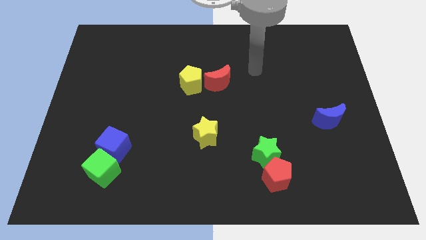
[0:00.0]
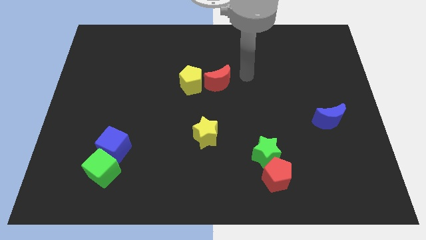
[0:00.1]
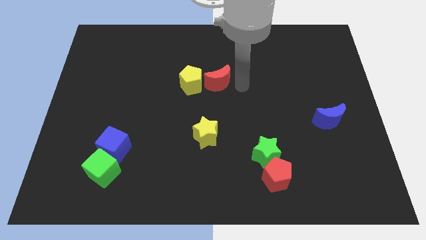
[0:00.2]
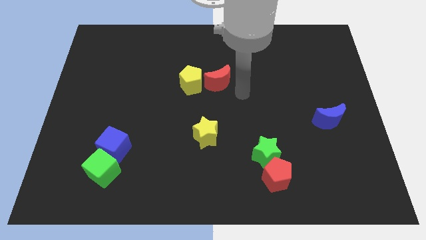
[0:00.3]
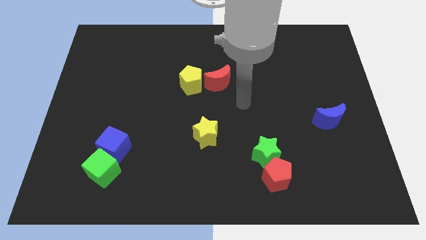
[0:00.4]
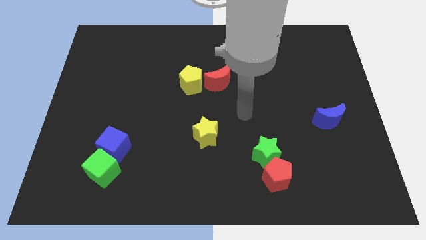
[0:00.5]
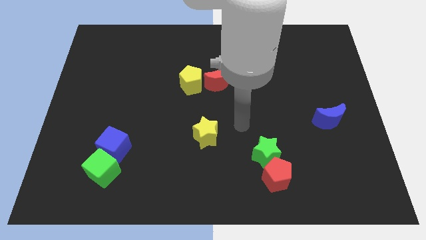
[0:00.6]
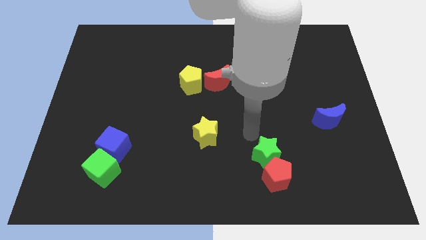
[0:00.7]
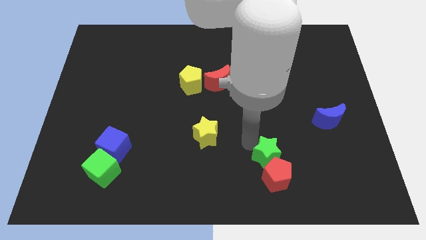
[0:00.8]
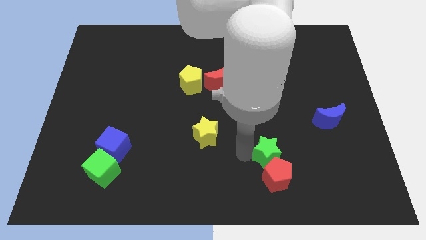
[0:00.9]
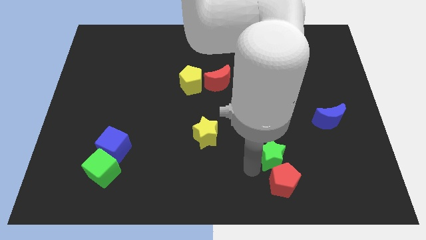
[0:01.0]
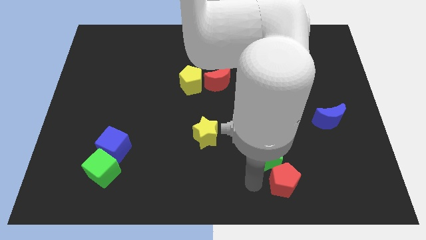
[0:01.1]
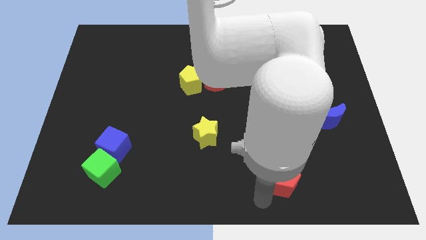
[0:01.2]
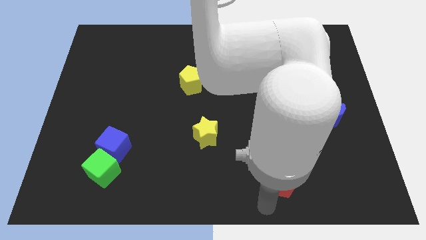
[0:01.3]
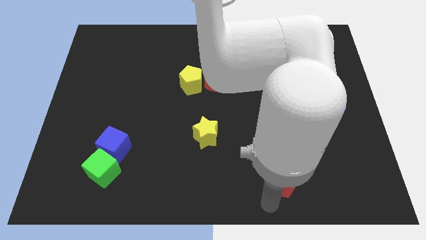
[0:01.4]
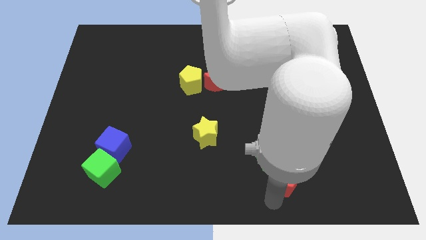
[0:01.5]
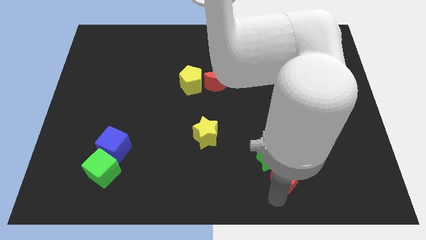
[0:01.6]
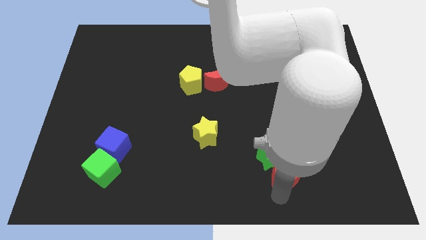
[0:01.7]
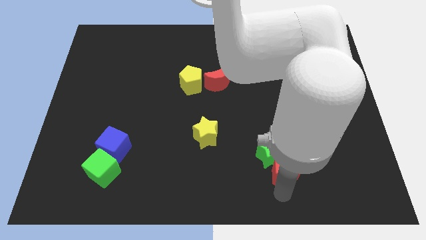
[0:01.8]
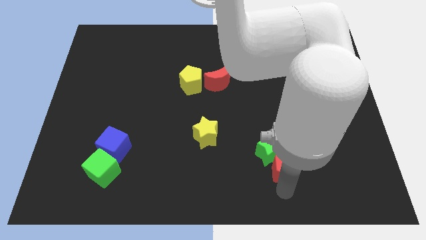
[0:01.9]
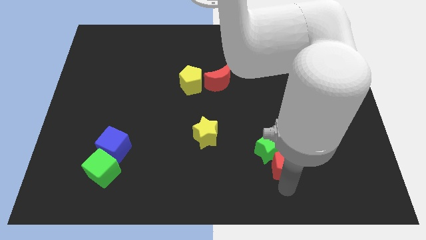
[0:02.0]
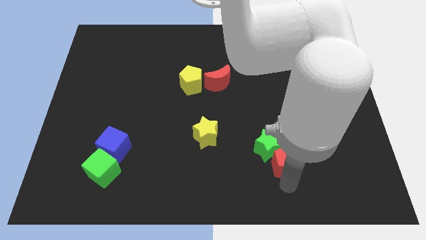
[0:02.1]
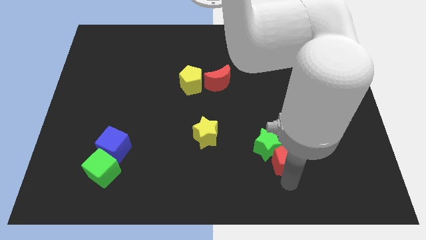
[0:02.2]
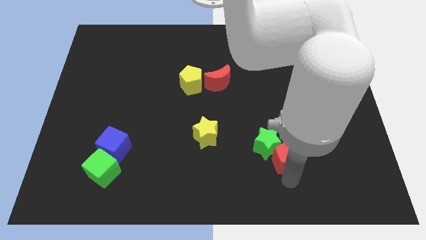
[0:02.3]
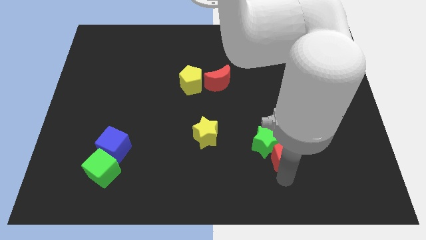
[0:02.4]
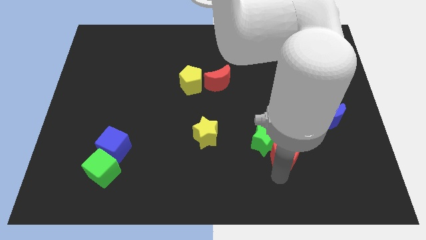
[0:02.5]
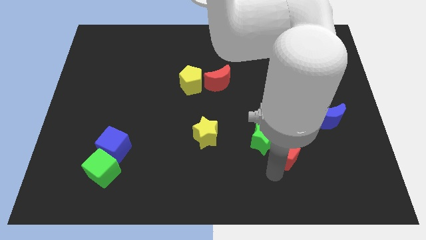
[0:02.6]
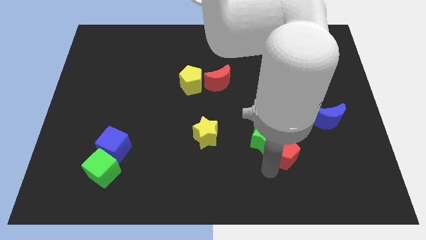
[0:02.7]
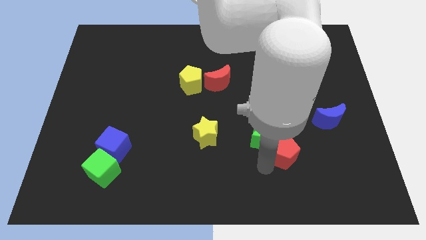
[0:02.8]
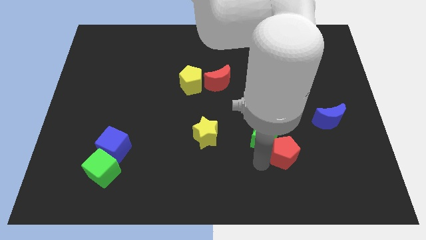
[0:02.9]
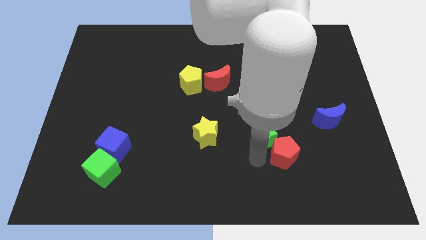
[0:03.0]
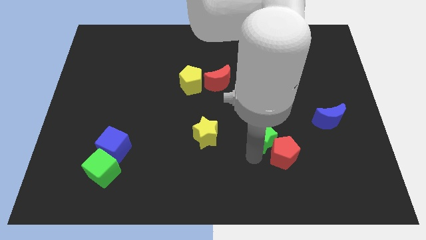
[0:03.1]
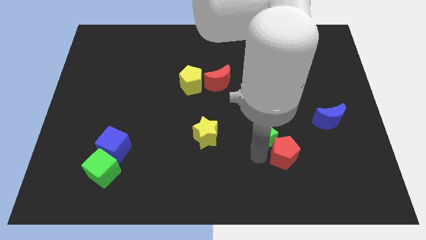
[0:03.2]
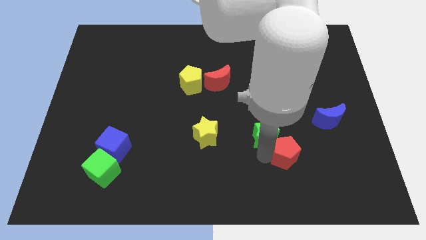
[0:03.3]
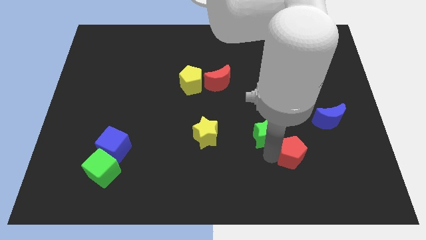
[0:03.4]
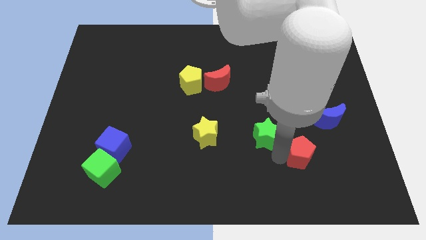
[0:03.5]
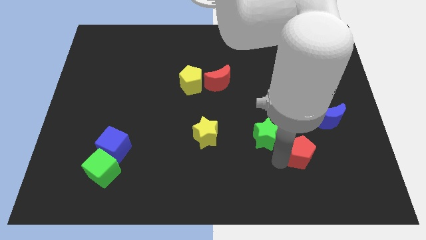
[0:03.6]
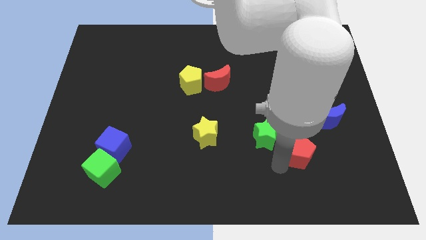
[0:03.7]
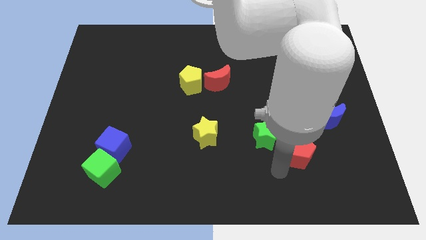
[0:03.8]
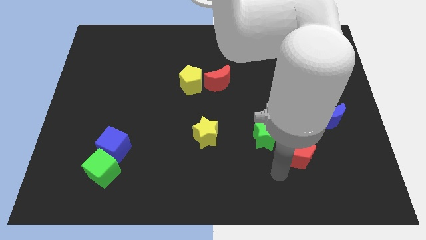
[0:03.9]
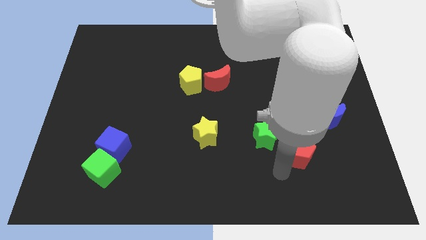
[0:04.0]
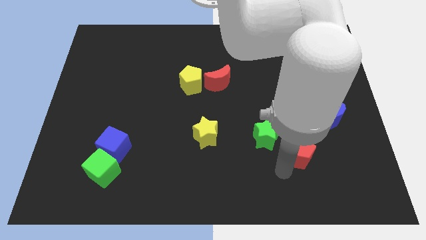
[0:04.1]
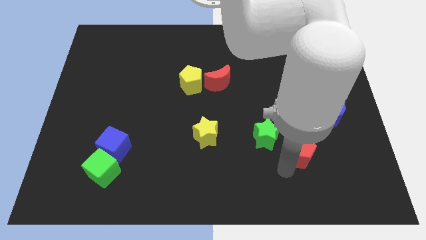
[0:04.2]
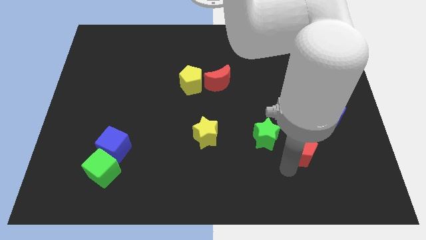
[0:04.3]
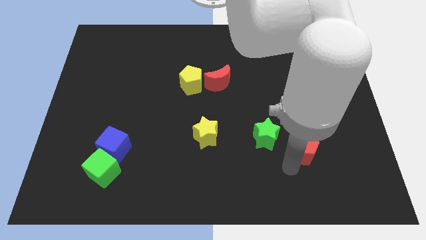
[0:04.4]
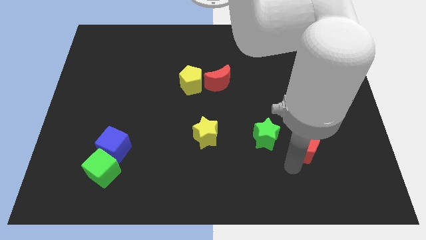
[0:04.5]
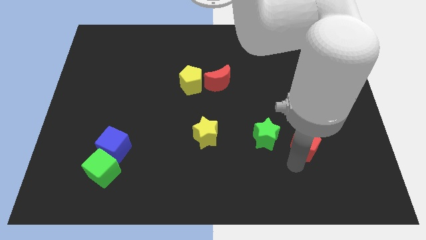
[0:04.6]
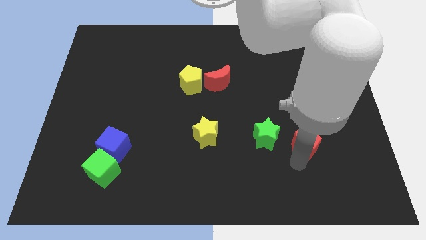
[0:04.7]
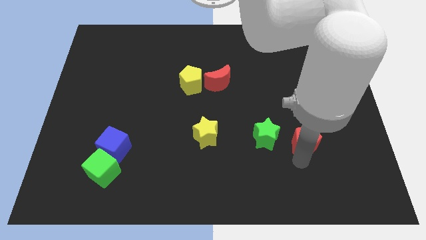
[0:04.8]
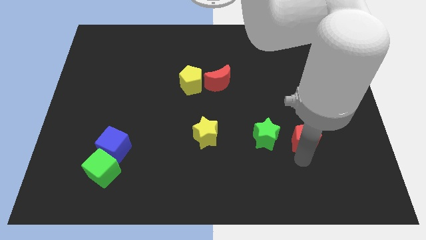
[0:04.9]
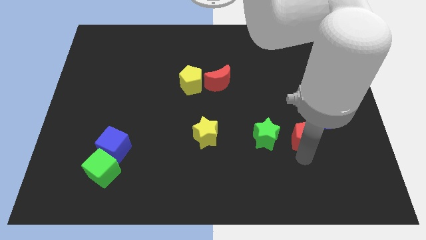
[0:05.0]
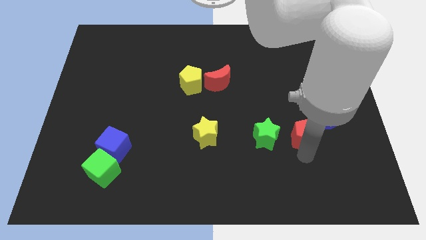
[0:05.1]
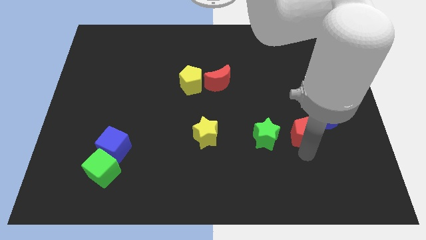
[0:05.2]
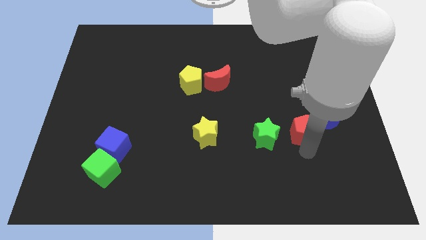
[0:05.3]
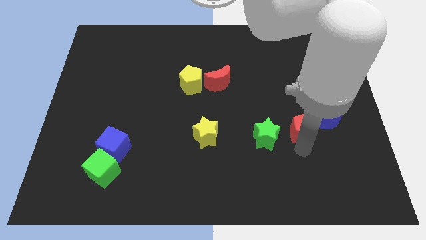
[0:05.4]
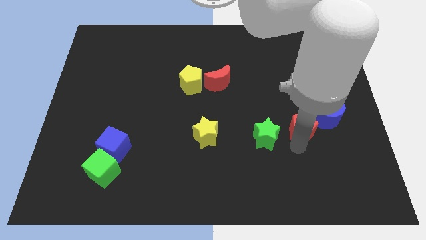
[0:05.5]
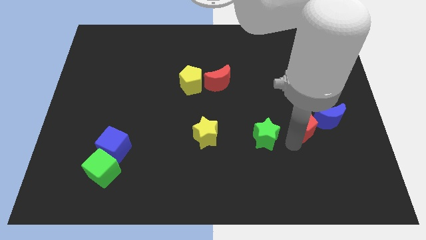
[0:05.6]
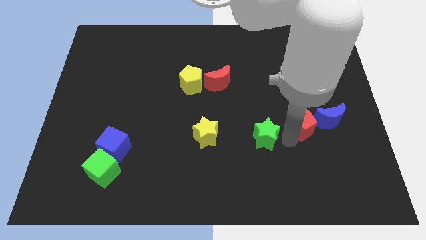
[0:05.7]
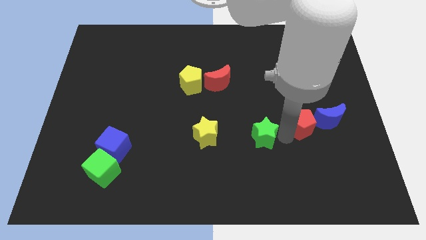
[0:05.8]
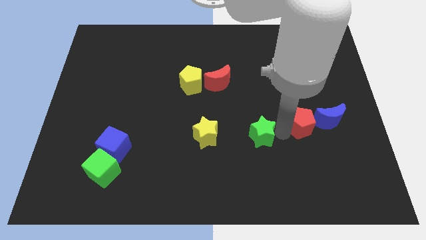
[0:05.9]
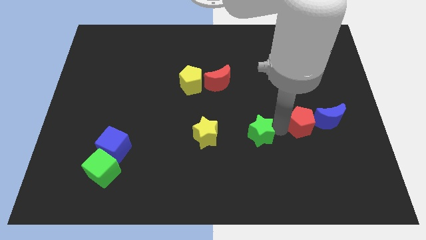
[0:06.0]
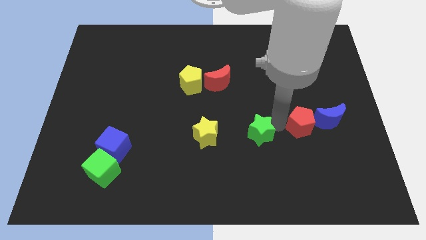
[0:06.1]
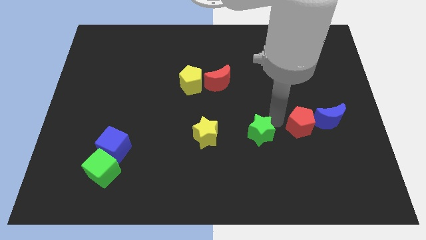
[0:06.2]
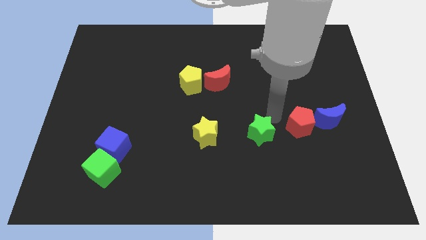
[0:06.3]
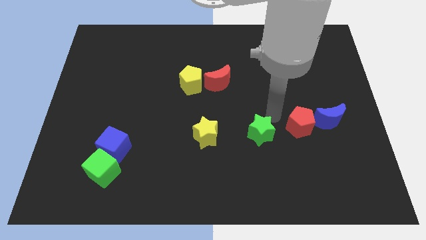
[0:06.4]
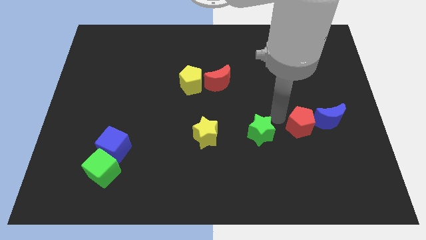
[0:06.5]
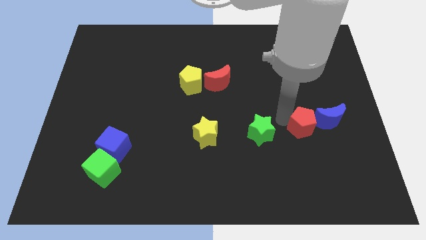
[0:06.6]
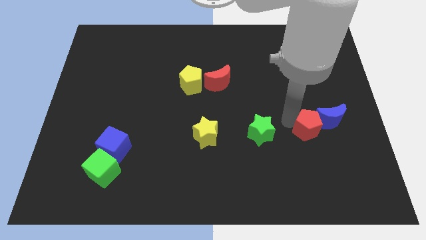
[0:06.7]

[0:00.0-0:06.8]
push the red pentagon to the blue moon
